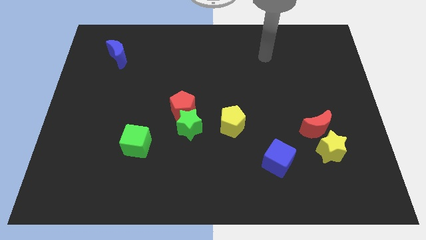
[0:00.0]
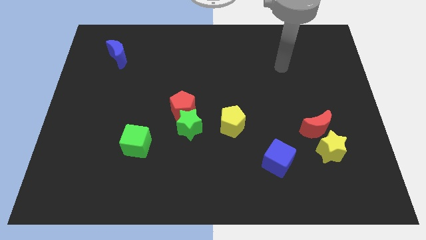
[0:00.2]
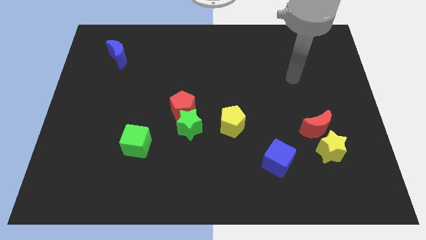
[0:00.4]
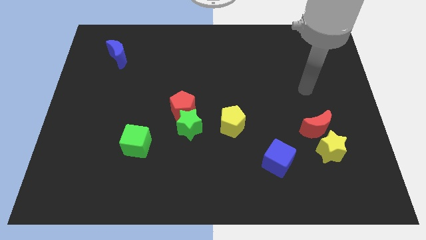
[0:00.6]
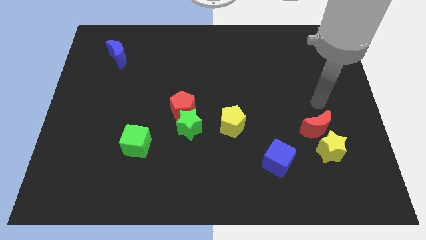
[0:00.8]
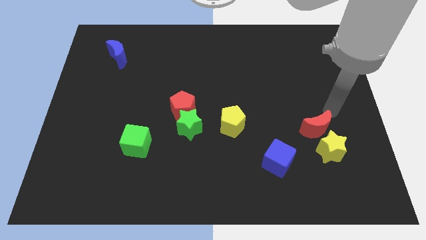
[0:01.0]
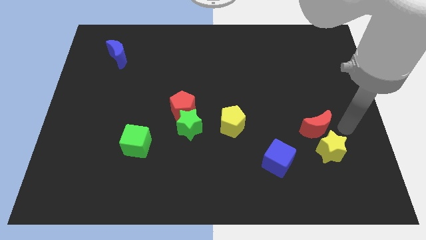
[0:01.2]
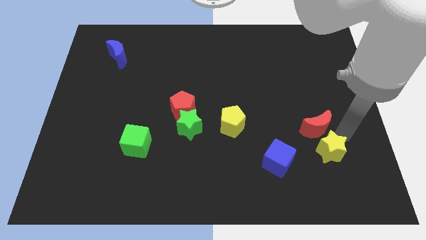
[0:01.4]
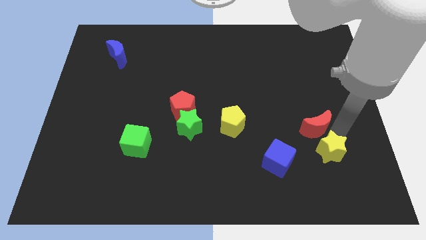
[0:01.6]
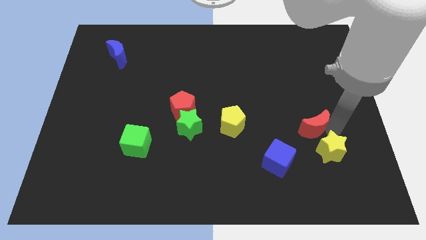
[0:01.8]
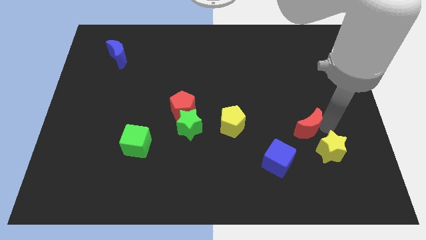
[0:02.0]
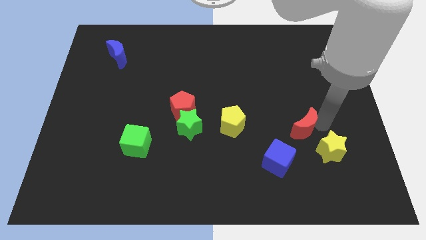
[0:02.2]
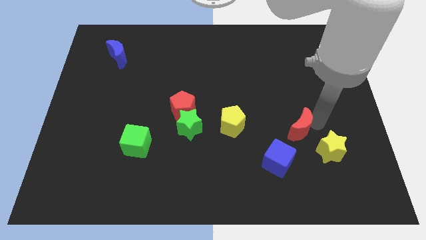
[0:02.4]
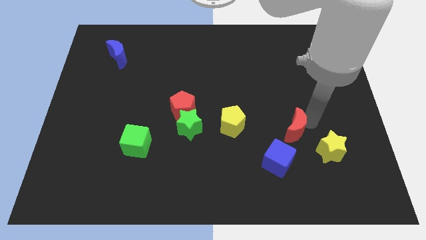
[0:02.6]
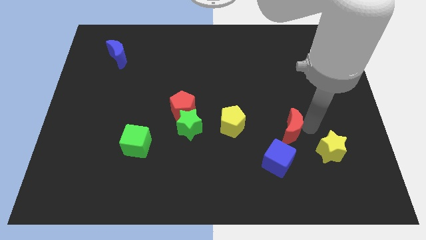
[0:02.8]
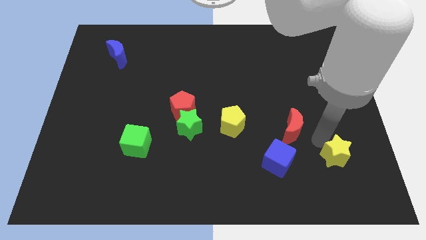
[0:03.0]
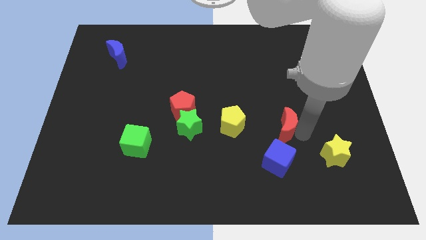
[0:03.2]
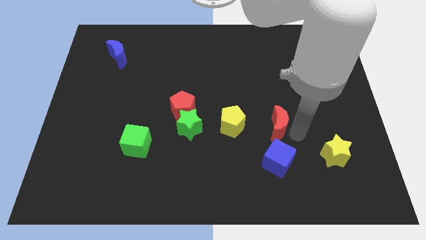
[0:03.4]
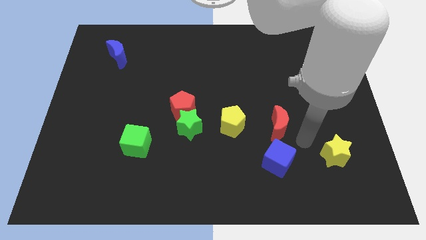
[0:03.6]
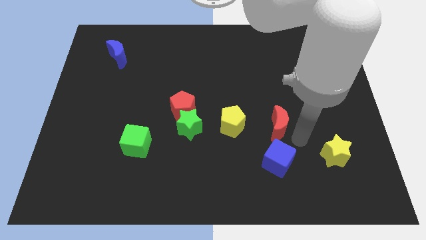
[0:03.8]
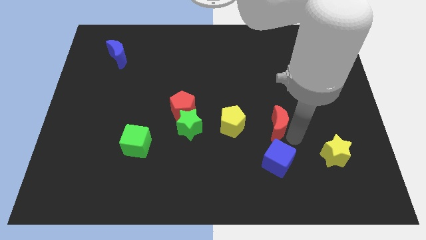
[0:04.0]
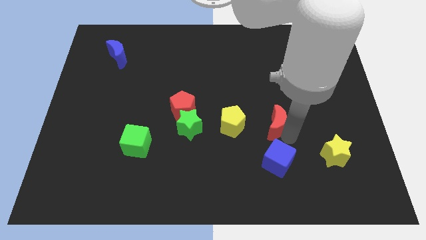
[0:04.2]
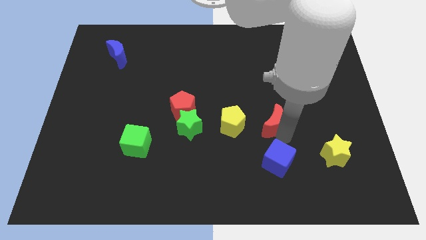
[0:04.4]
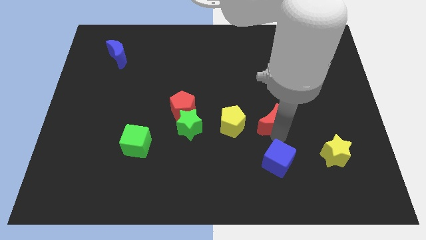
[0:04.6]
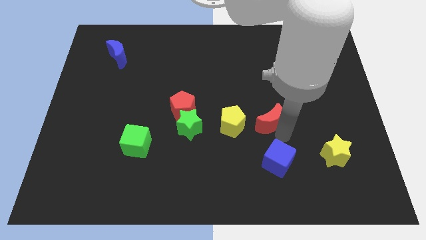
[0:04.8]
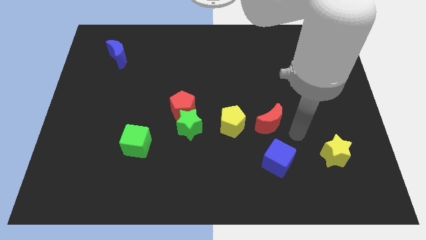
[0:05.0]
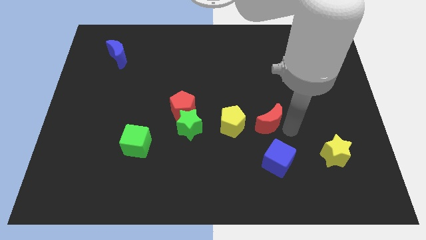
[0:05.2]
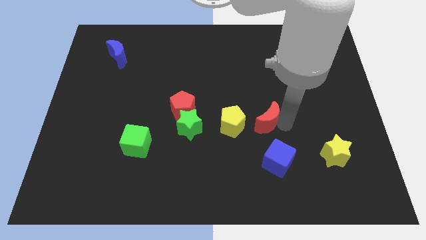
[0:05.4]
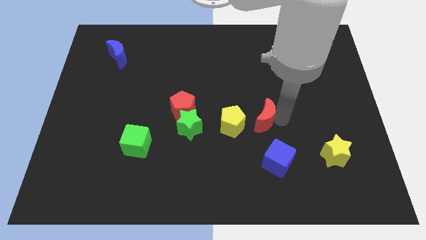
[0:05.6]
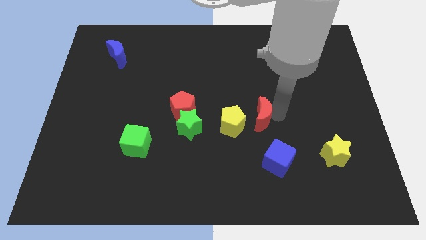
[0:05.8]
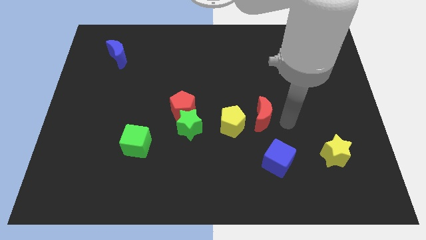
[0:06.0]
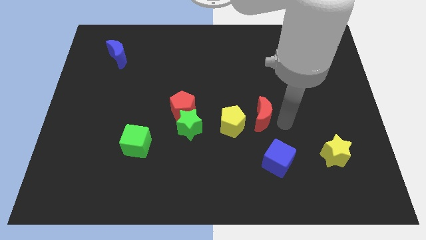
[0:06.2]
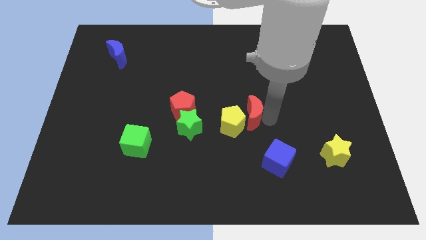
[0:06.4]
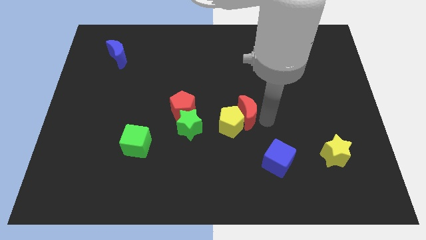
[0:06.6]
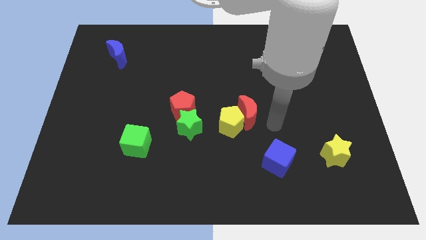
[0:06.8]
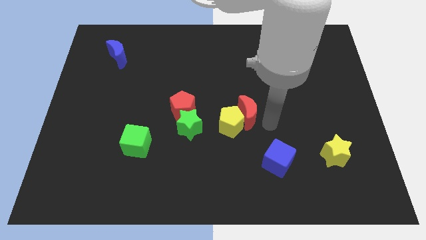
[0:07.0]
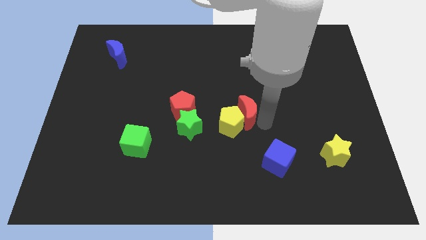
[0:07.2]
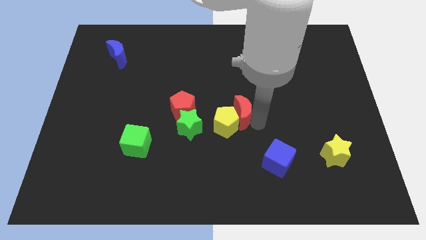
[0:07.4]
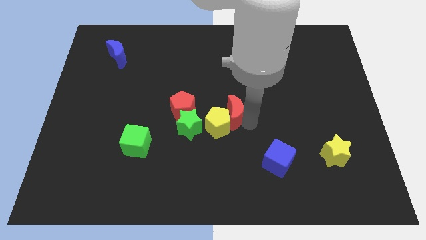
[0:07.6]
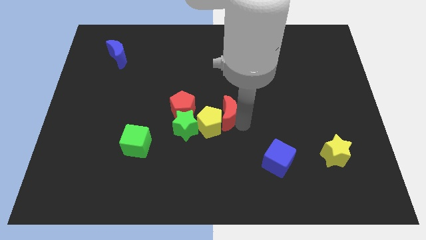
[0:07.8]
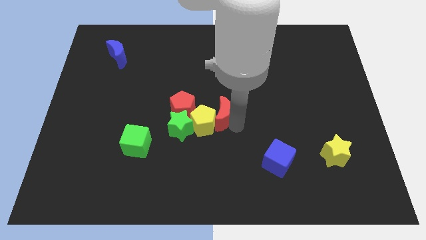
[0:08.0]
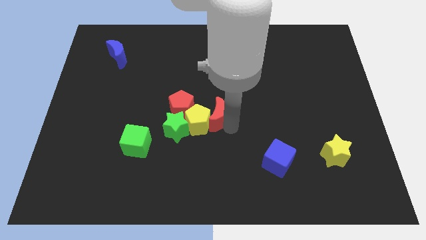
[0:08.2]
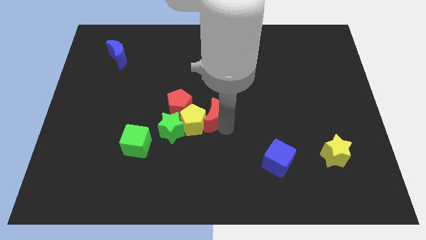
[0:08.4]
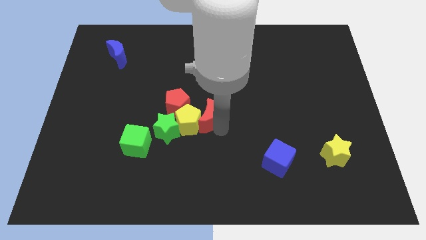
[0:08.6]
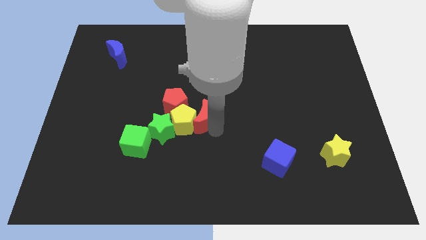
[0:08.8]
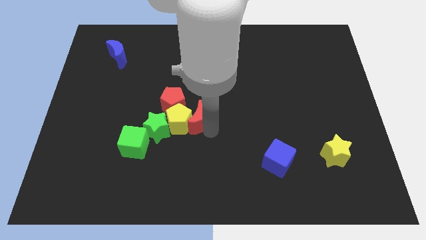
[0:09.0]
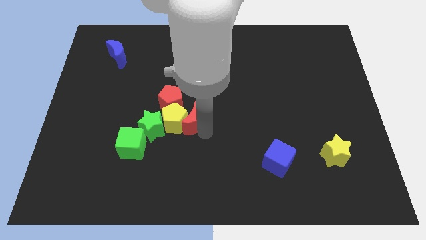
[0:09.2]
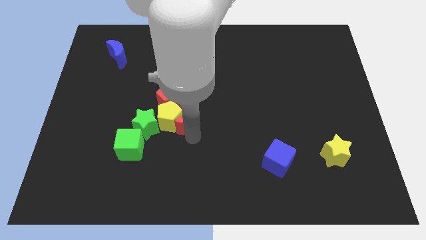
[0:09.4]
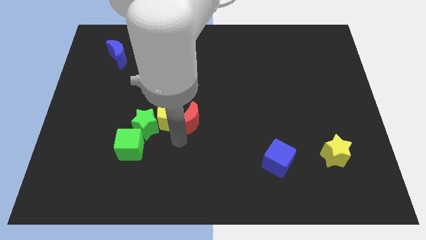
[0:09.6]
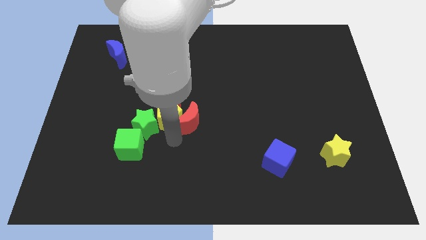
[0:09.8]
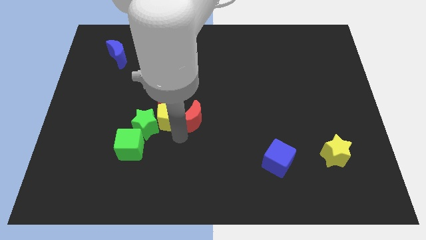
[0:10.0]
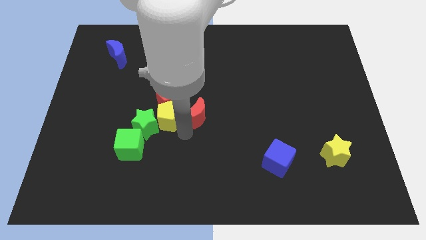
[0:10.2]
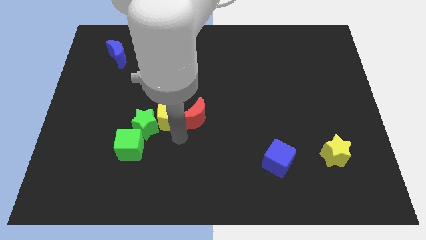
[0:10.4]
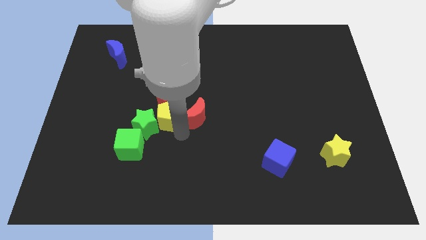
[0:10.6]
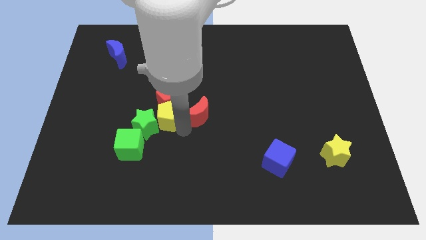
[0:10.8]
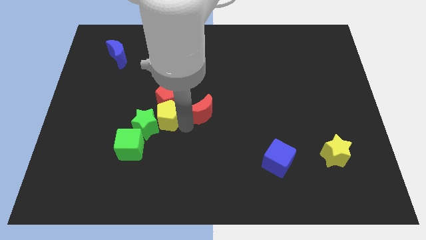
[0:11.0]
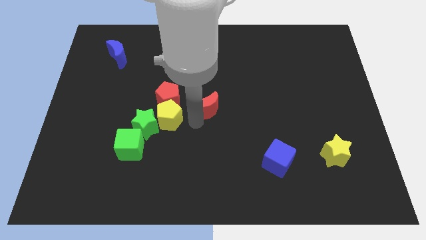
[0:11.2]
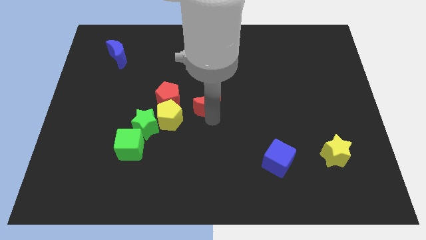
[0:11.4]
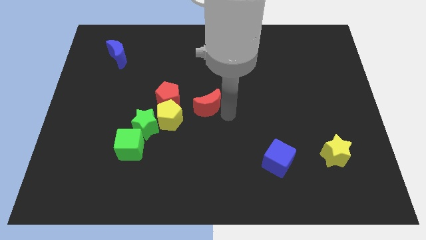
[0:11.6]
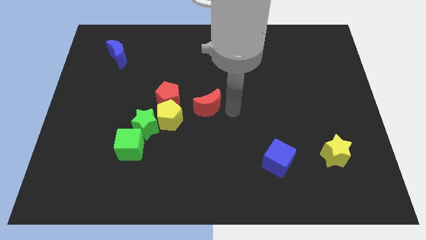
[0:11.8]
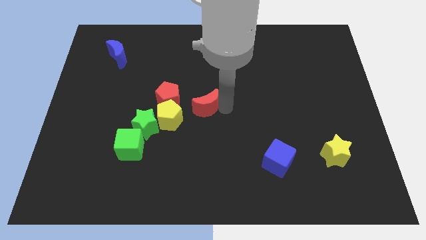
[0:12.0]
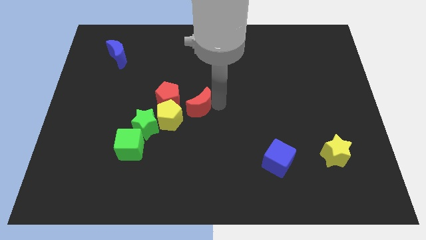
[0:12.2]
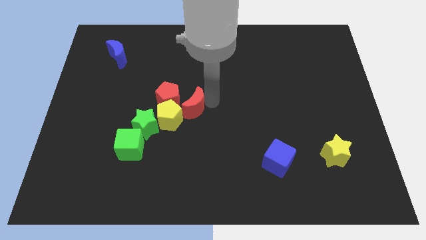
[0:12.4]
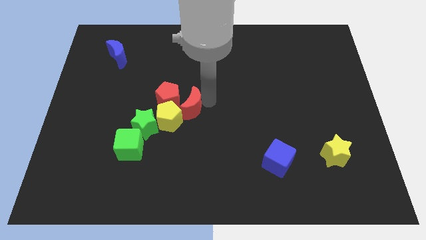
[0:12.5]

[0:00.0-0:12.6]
slide the red moon next to the red pentagon

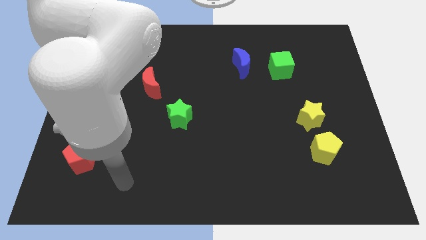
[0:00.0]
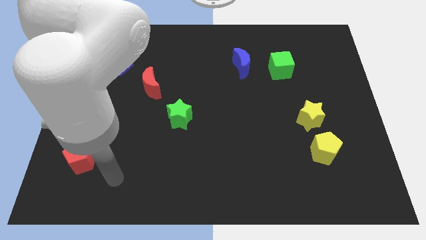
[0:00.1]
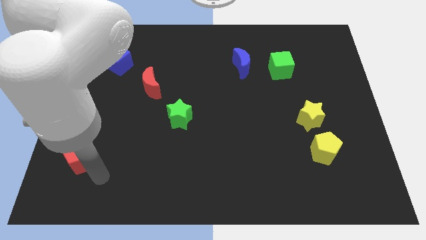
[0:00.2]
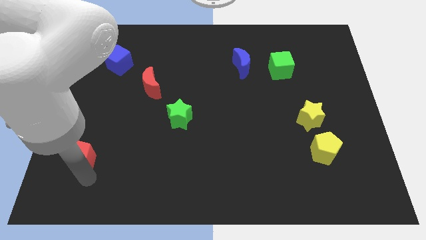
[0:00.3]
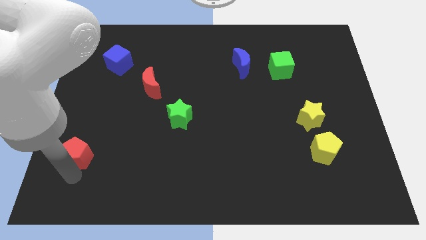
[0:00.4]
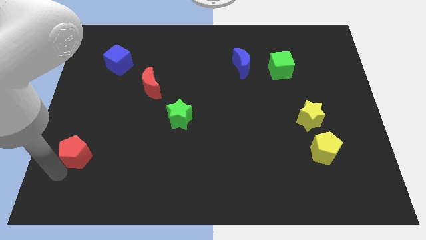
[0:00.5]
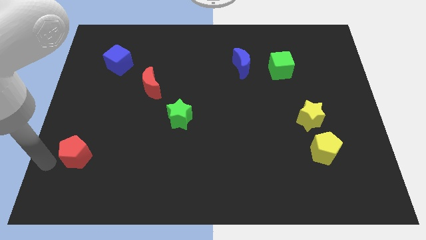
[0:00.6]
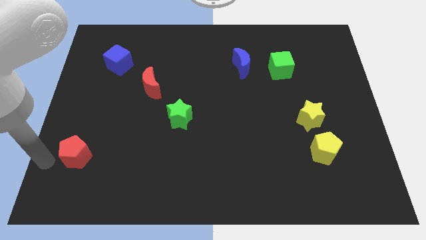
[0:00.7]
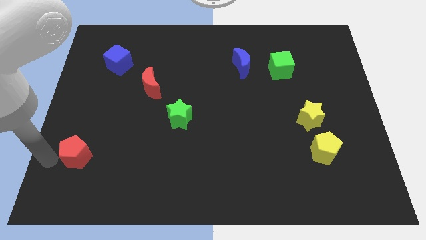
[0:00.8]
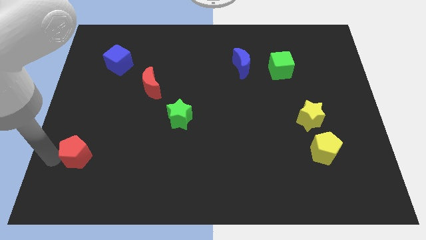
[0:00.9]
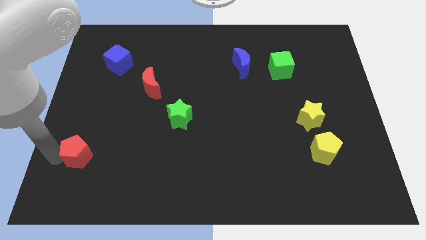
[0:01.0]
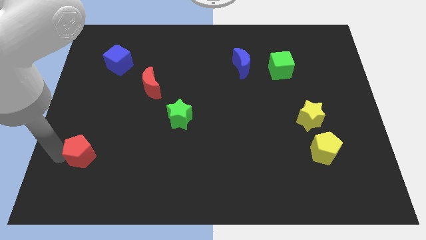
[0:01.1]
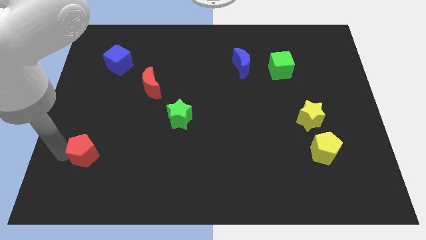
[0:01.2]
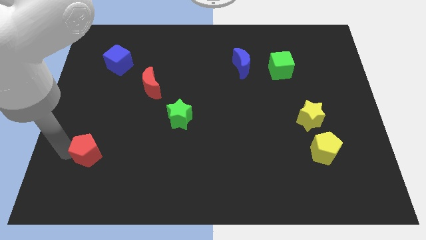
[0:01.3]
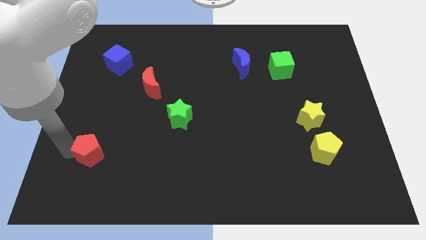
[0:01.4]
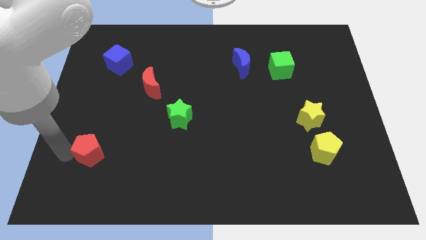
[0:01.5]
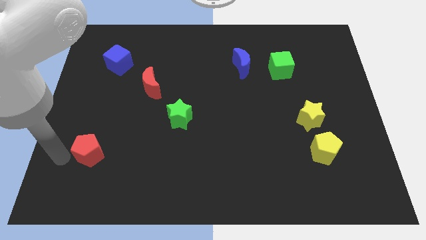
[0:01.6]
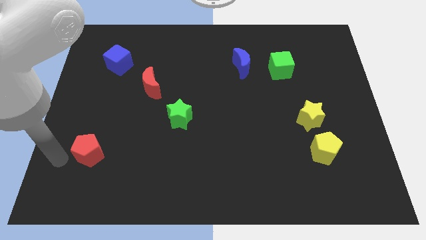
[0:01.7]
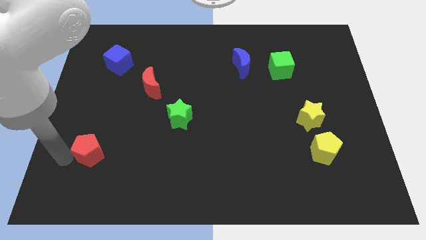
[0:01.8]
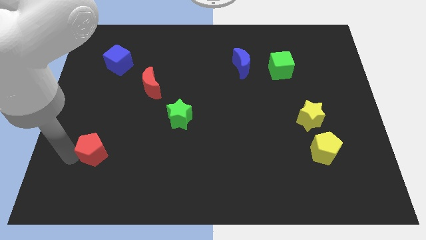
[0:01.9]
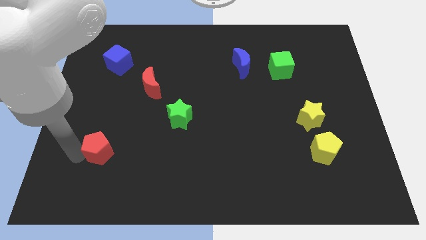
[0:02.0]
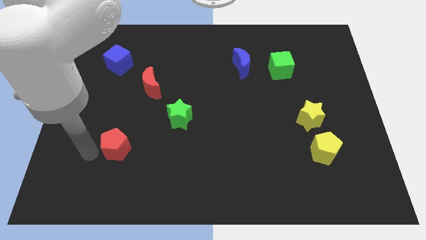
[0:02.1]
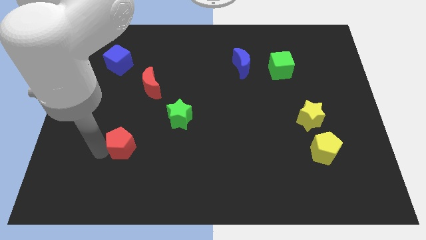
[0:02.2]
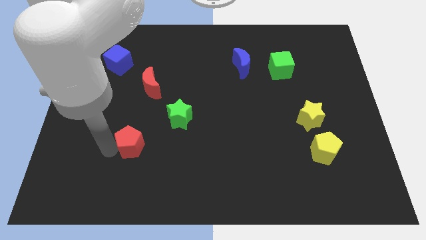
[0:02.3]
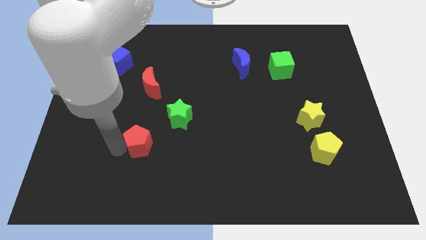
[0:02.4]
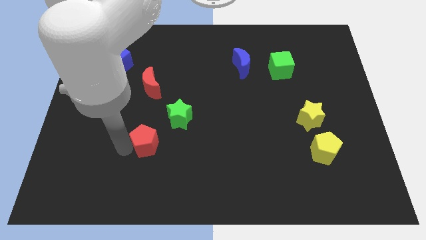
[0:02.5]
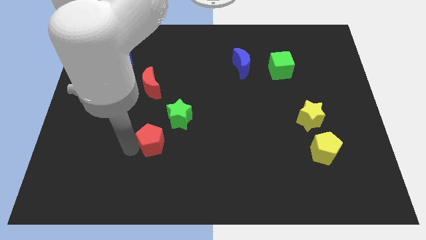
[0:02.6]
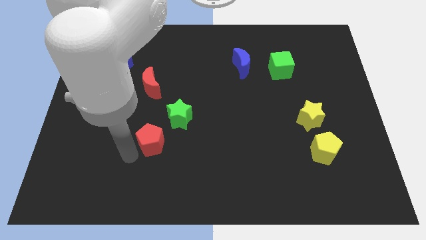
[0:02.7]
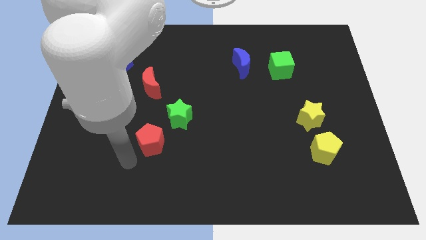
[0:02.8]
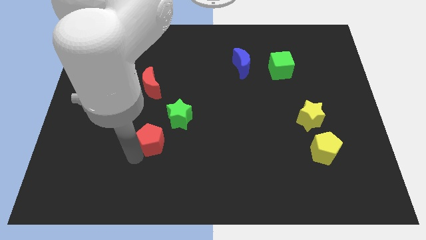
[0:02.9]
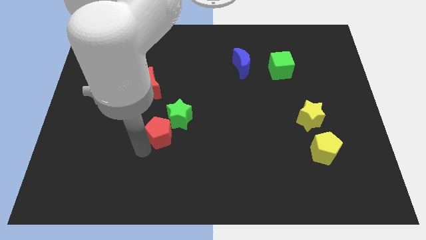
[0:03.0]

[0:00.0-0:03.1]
push the red pentagon next to the green star
